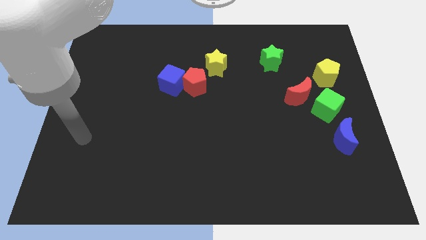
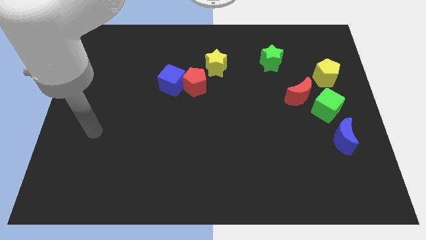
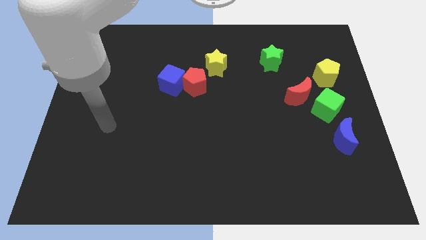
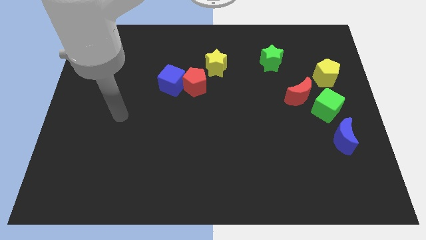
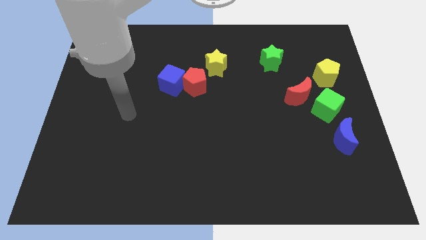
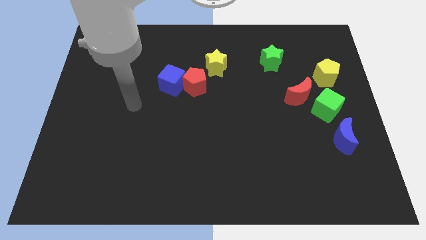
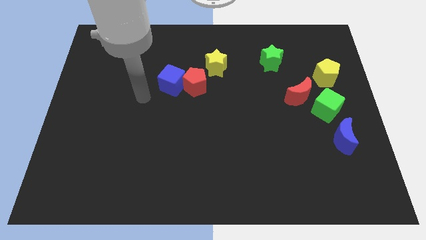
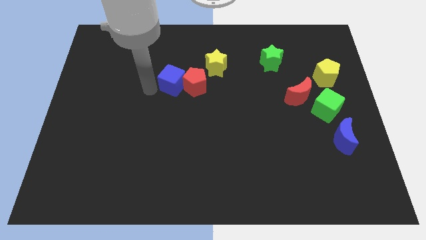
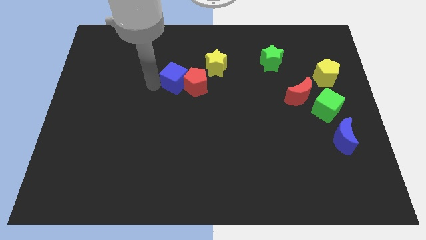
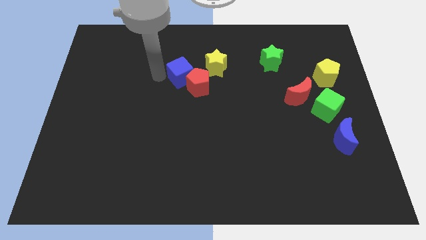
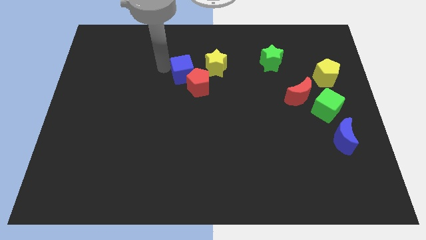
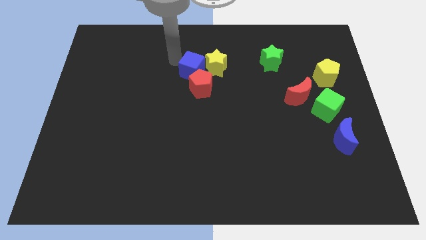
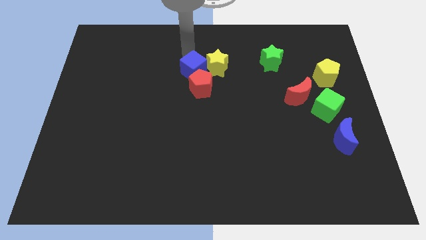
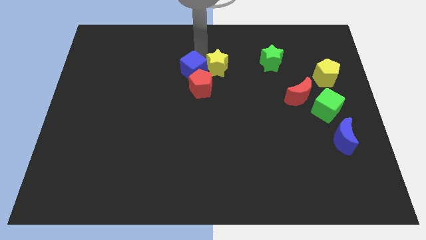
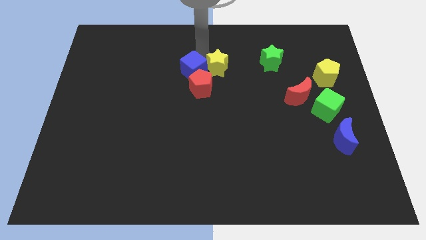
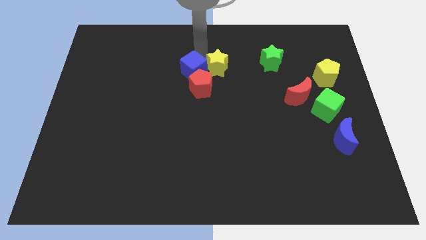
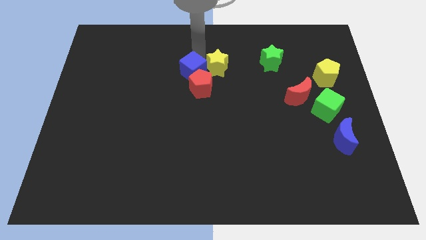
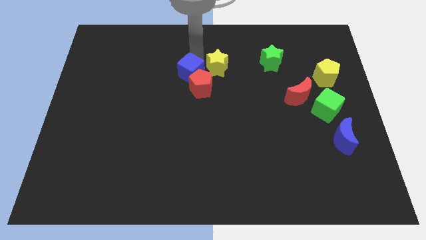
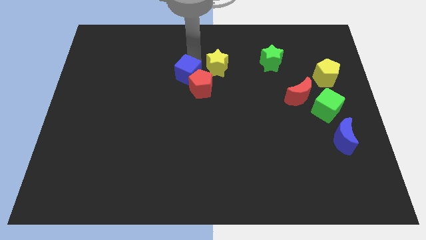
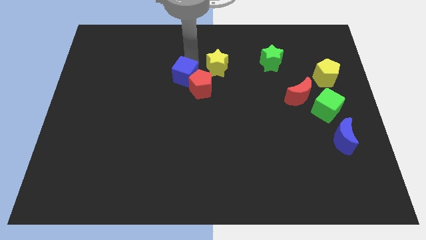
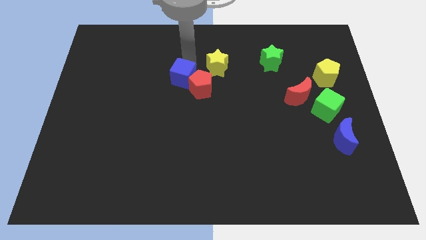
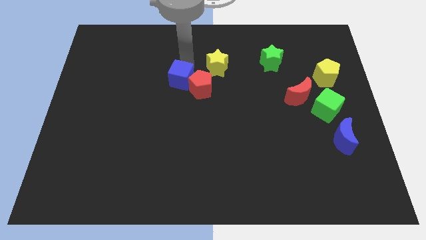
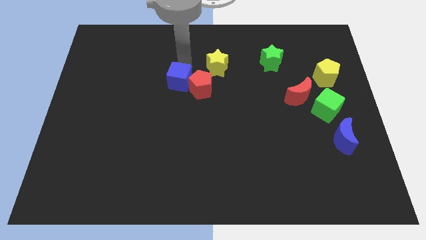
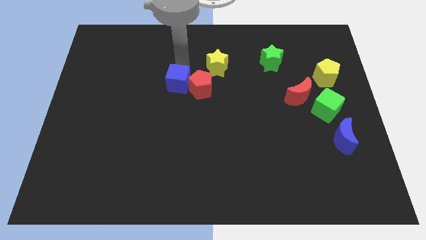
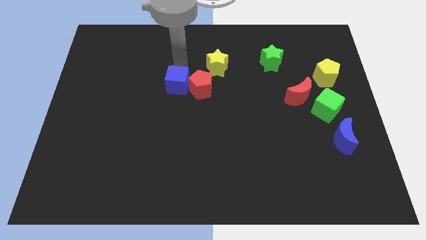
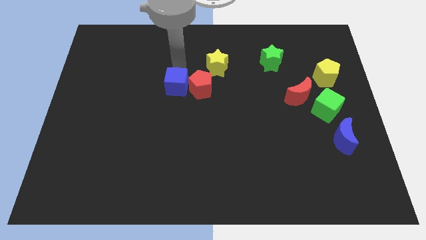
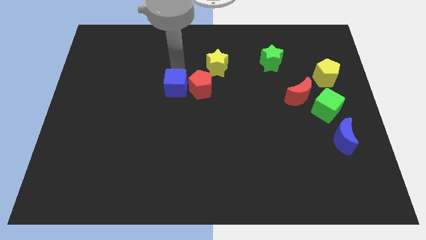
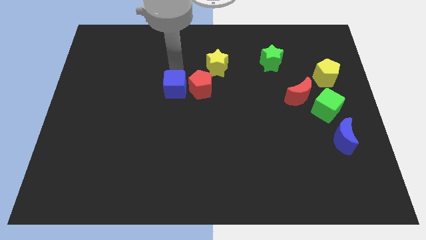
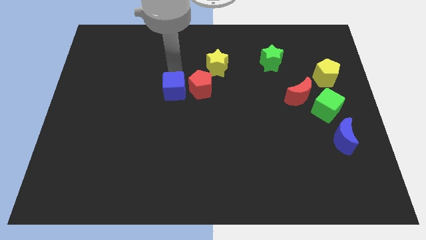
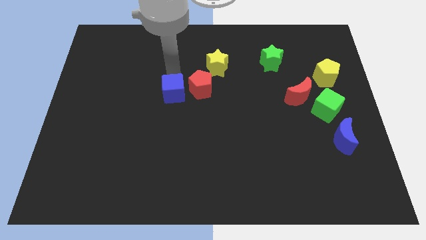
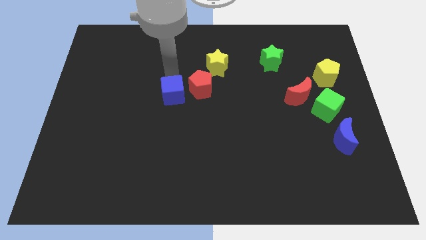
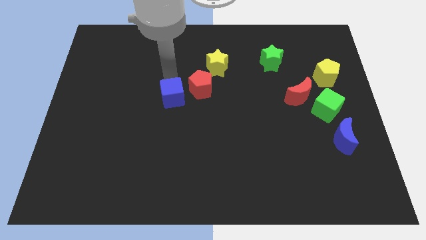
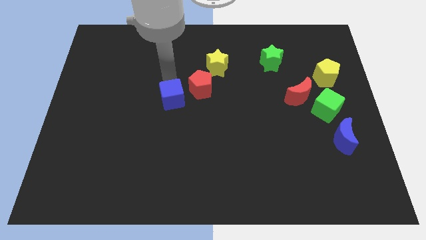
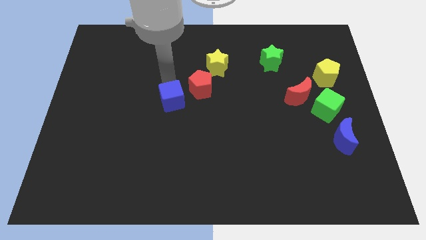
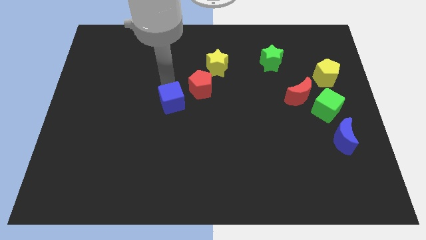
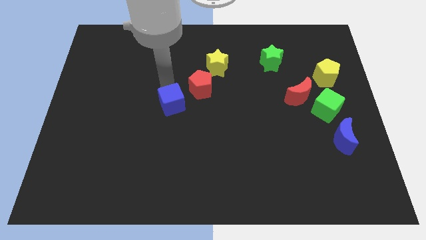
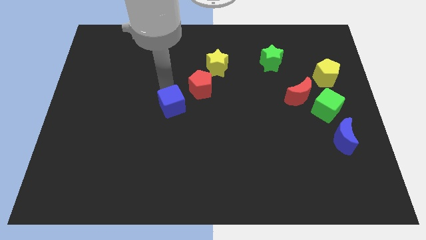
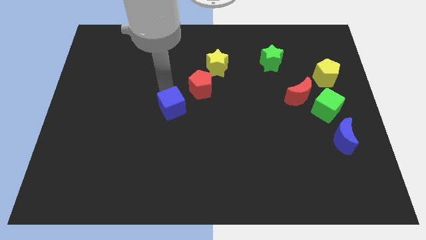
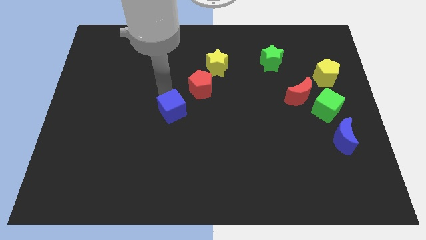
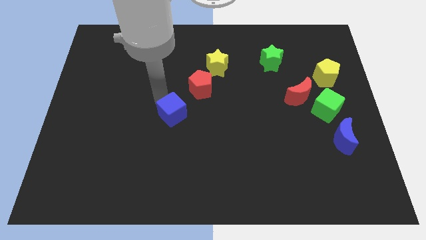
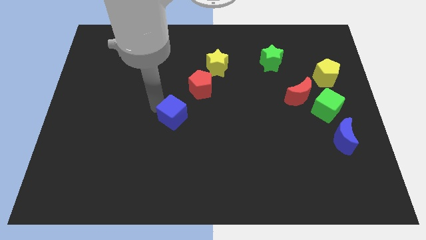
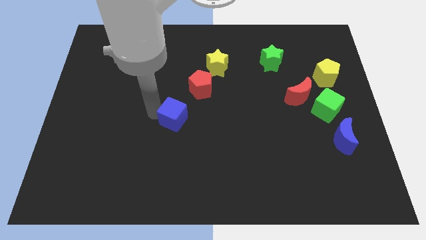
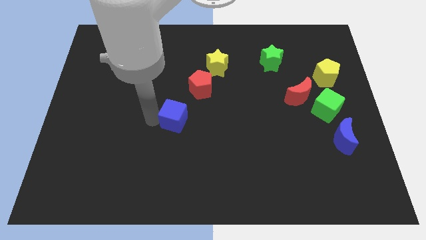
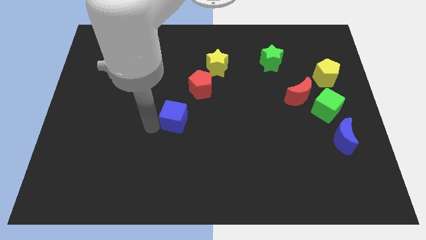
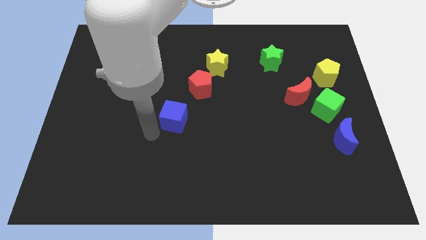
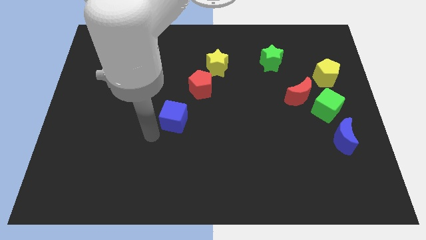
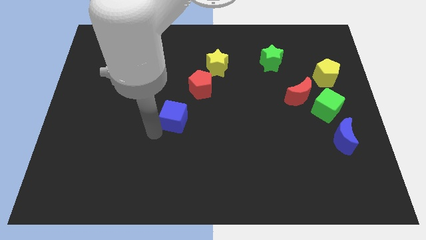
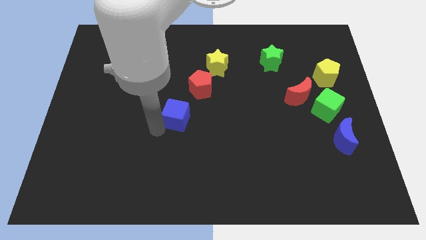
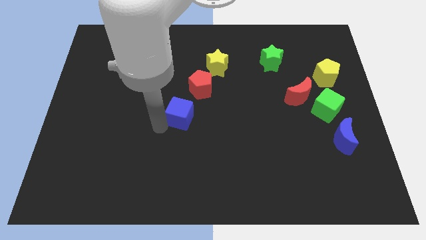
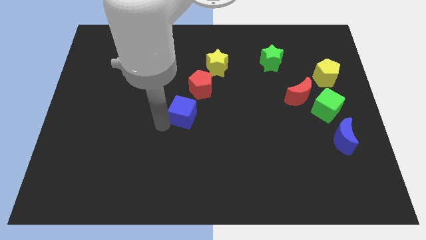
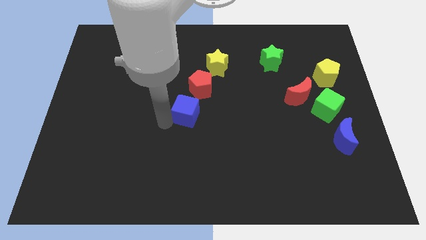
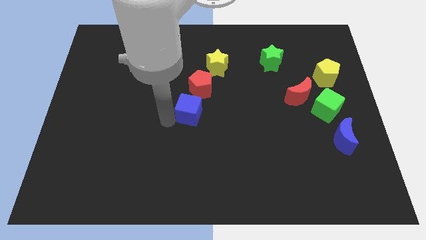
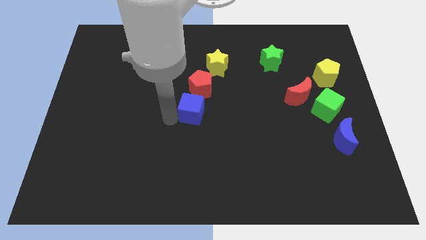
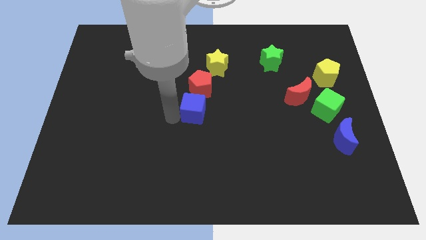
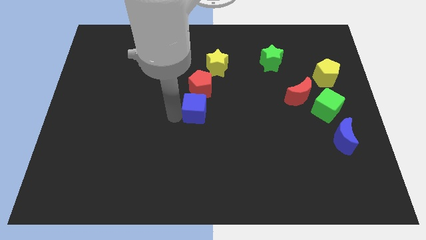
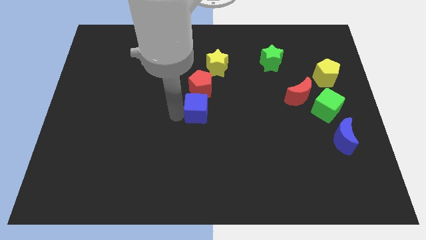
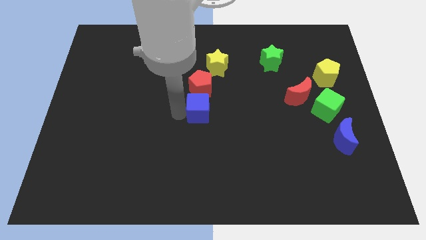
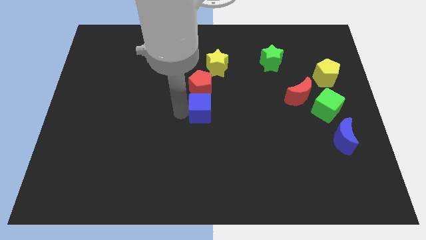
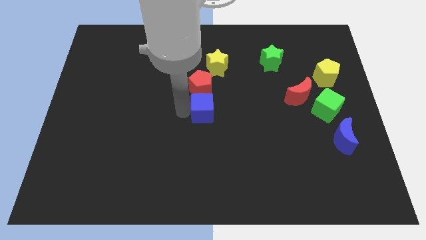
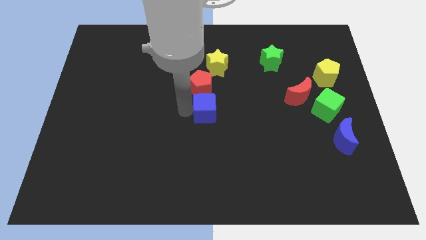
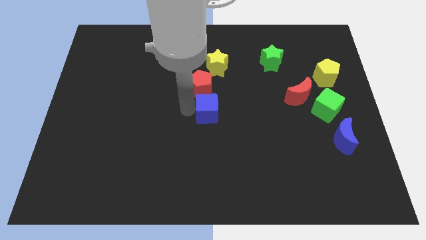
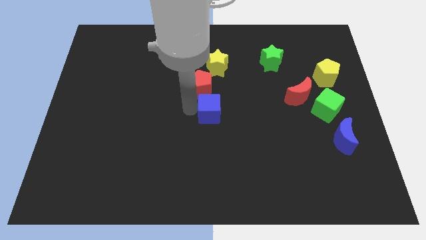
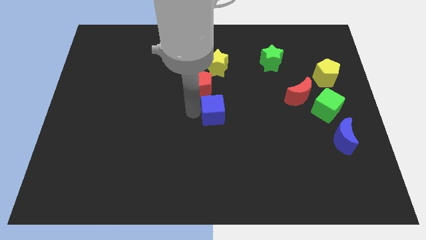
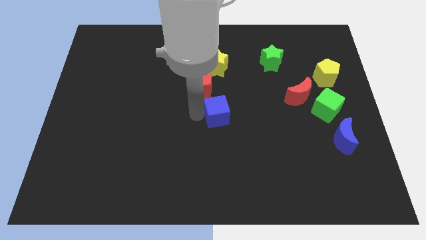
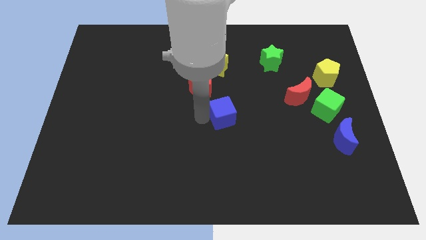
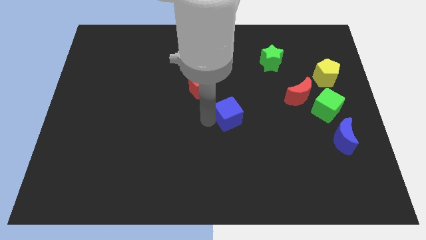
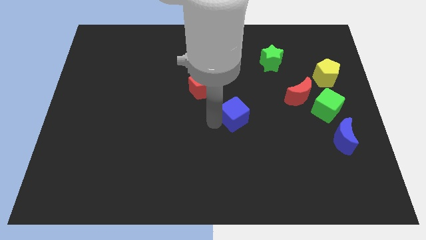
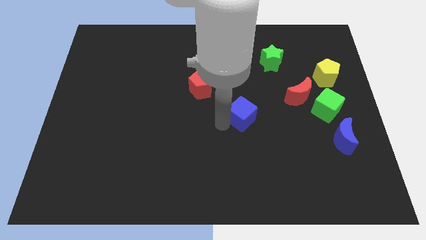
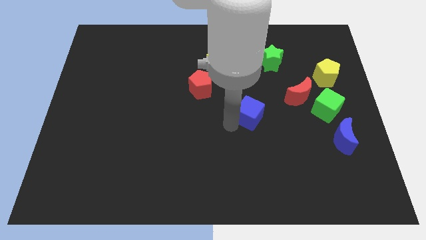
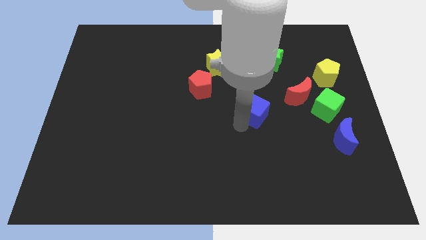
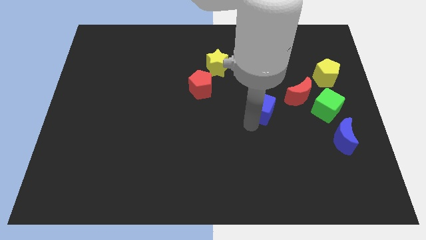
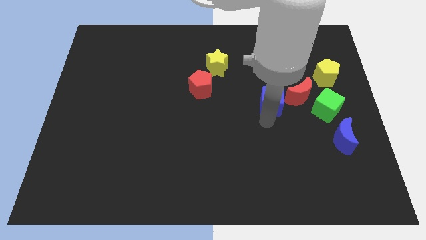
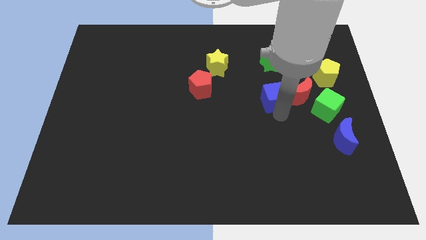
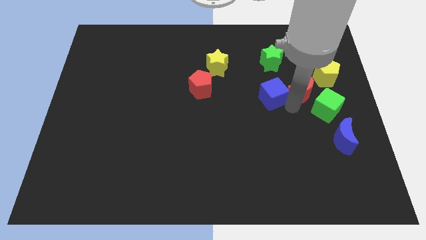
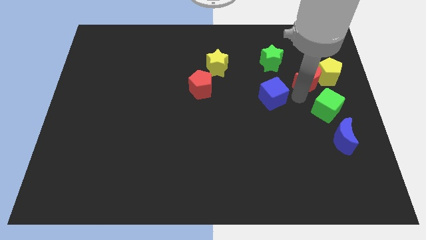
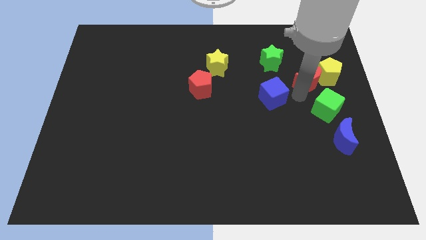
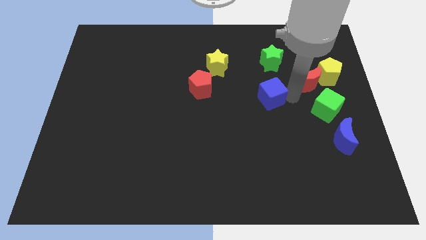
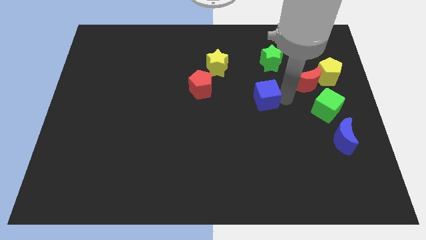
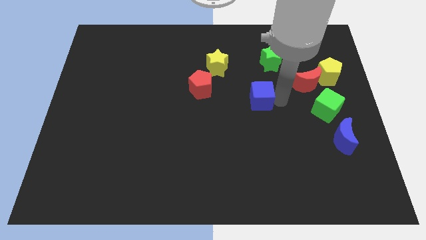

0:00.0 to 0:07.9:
move the blue cube just right of the red pentagon
